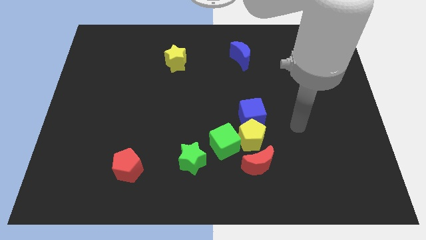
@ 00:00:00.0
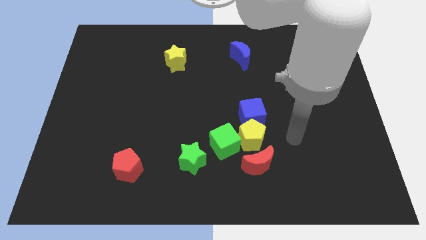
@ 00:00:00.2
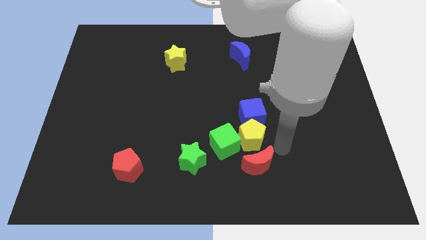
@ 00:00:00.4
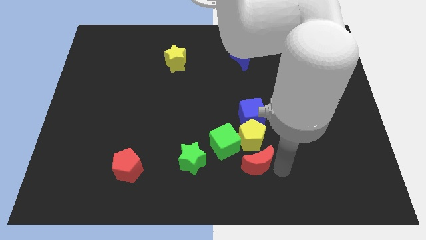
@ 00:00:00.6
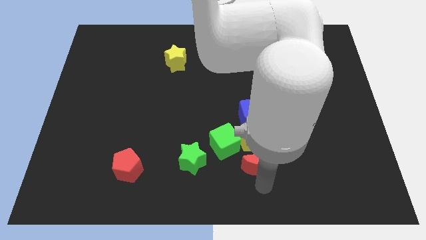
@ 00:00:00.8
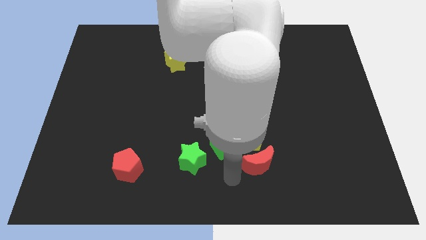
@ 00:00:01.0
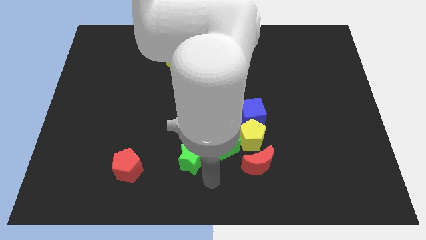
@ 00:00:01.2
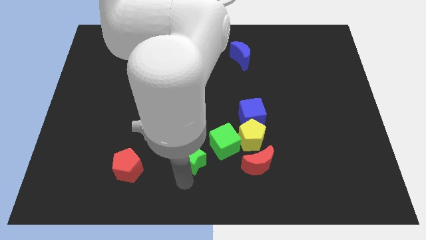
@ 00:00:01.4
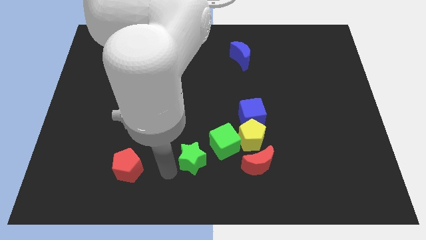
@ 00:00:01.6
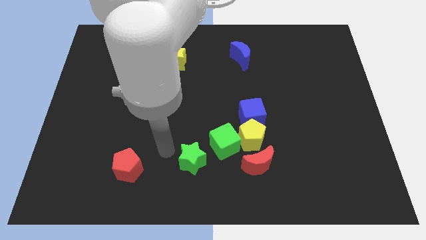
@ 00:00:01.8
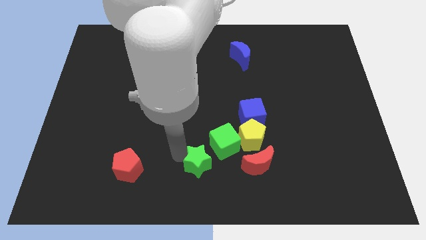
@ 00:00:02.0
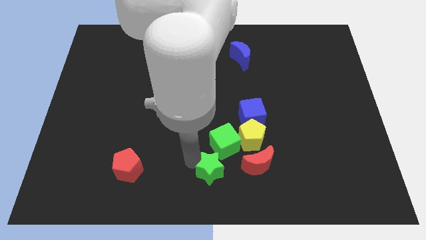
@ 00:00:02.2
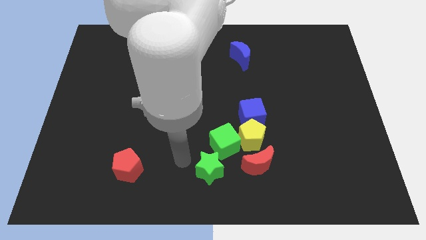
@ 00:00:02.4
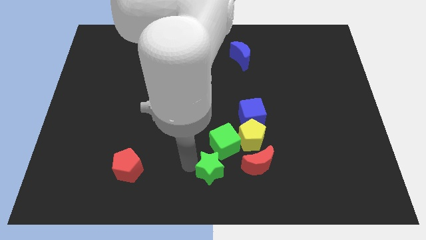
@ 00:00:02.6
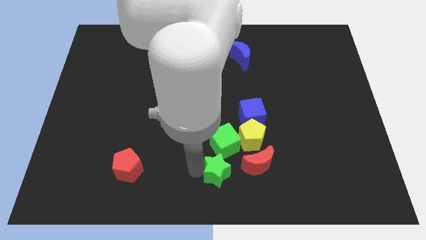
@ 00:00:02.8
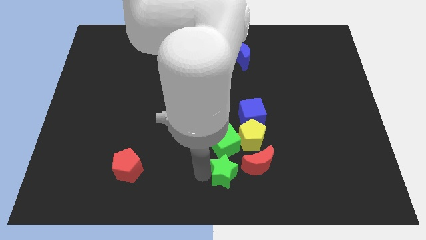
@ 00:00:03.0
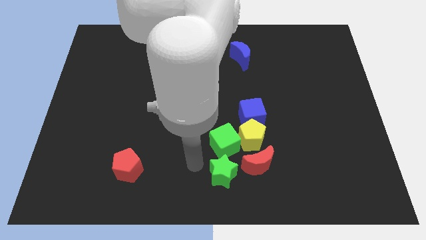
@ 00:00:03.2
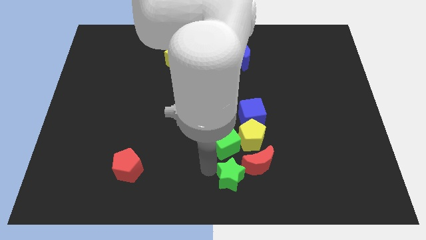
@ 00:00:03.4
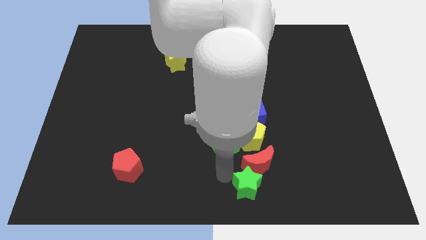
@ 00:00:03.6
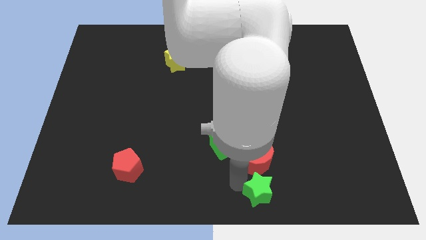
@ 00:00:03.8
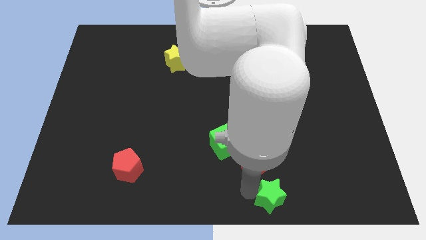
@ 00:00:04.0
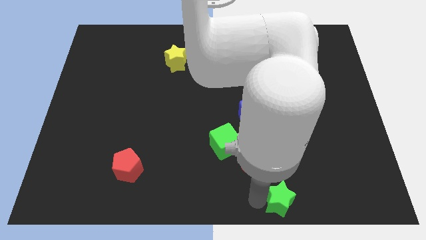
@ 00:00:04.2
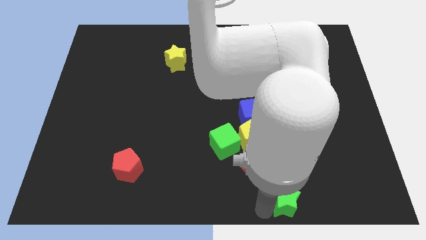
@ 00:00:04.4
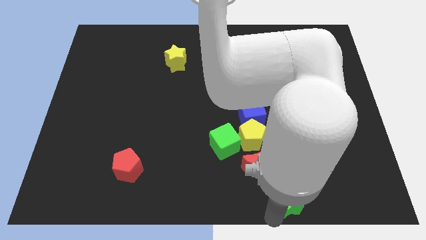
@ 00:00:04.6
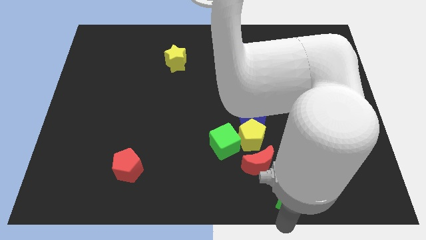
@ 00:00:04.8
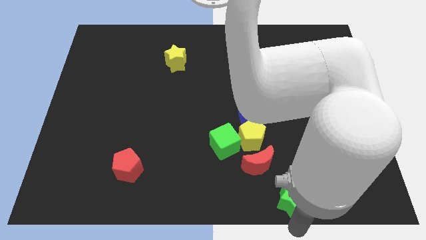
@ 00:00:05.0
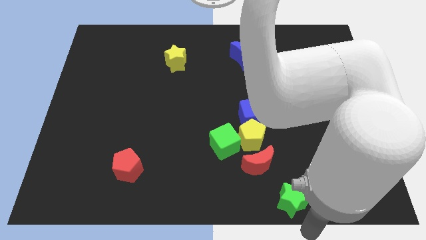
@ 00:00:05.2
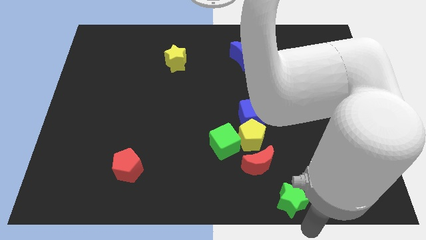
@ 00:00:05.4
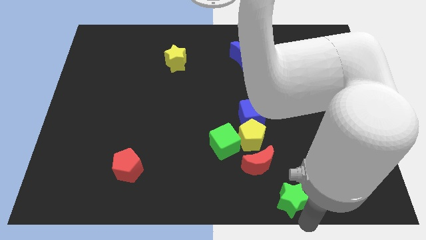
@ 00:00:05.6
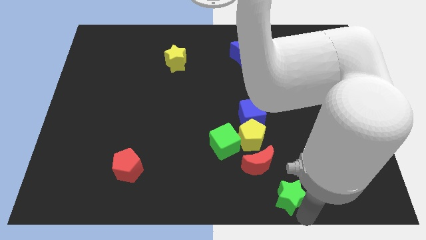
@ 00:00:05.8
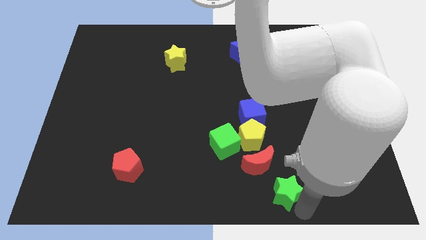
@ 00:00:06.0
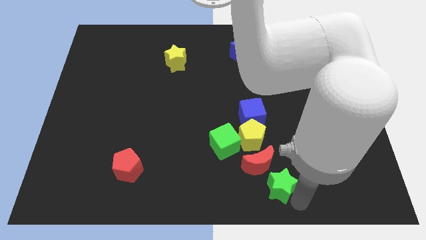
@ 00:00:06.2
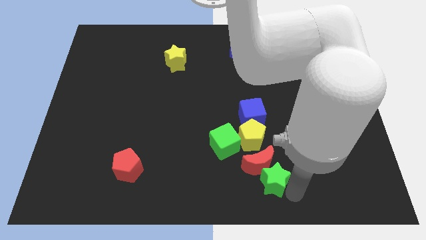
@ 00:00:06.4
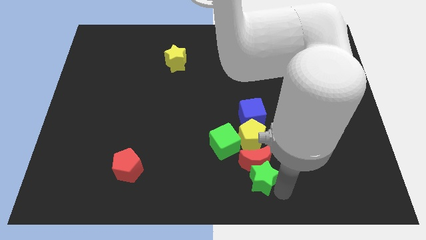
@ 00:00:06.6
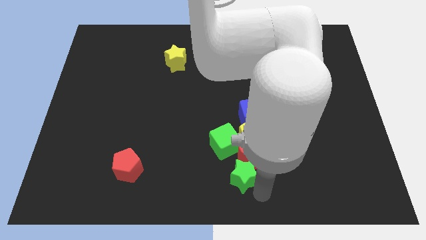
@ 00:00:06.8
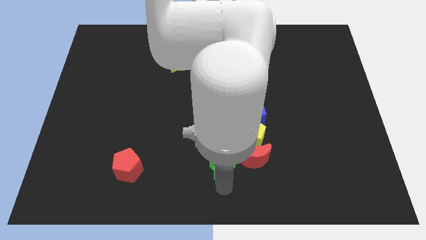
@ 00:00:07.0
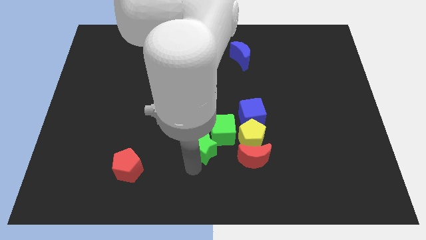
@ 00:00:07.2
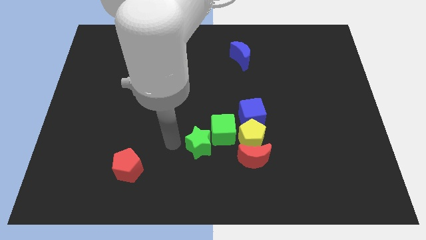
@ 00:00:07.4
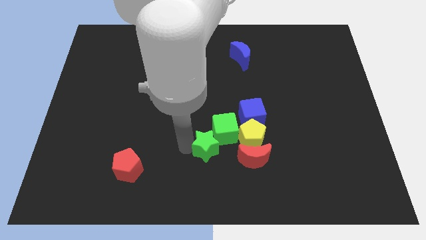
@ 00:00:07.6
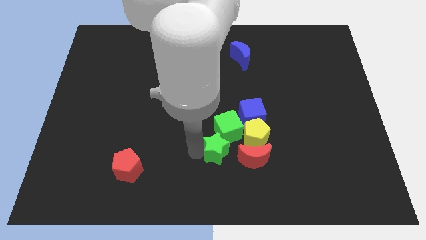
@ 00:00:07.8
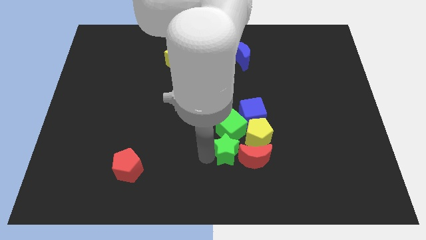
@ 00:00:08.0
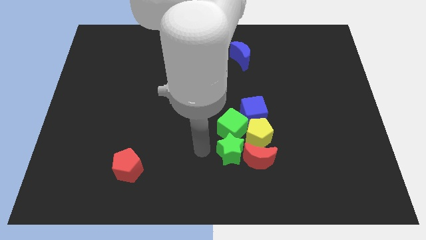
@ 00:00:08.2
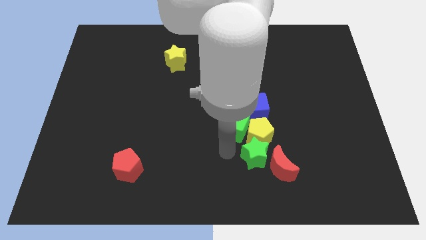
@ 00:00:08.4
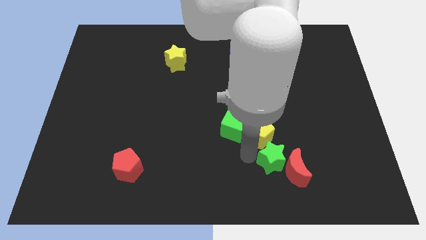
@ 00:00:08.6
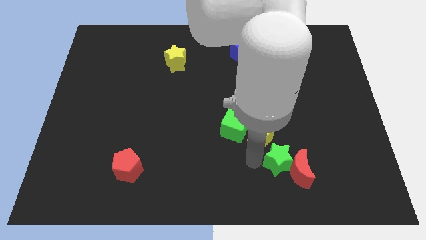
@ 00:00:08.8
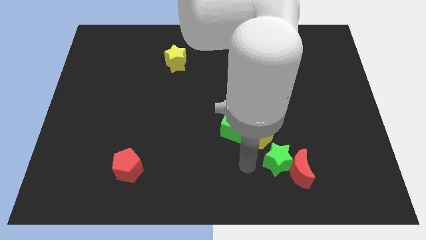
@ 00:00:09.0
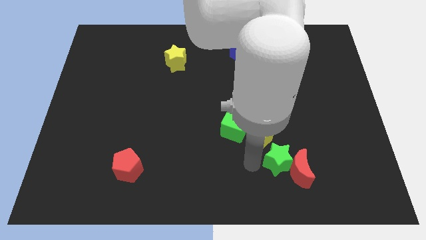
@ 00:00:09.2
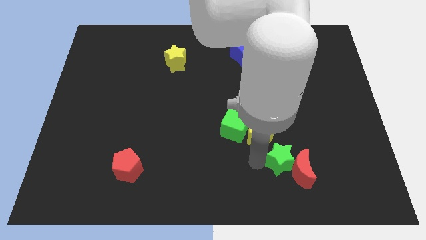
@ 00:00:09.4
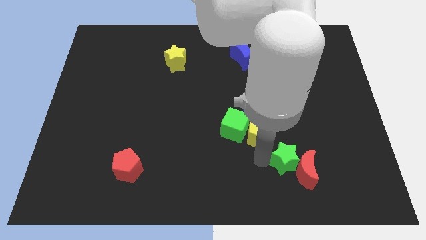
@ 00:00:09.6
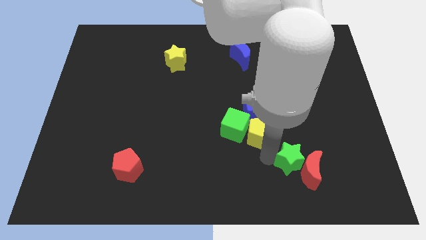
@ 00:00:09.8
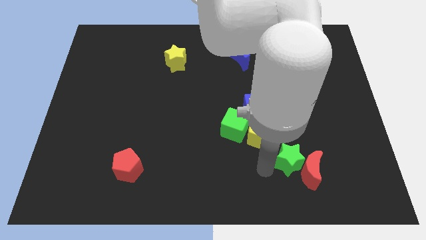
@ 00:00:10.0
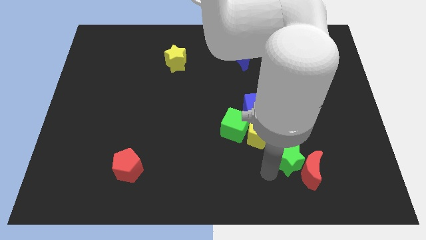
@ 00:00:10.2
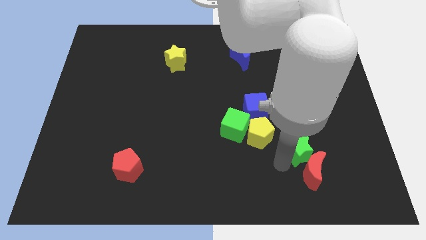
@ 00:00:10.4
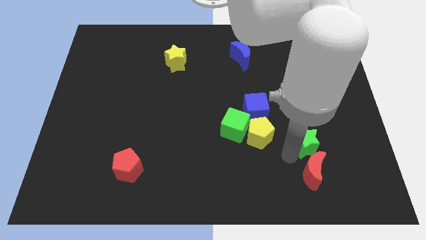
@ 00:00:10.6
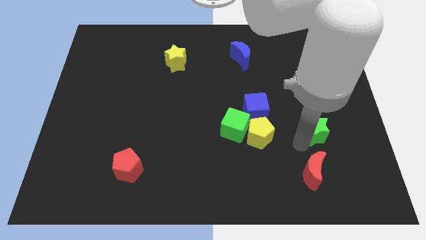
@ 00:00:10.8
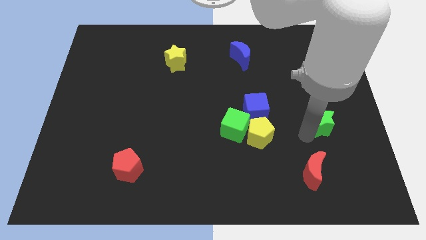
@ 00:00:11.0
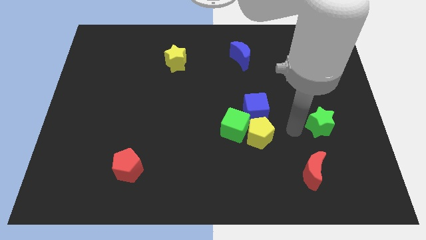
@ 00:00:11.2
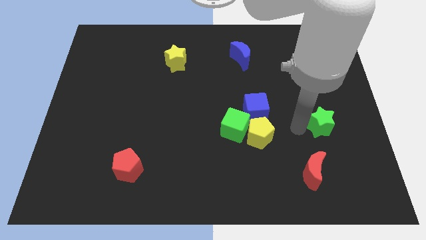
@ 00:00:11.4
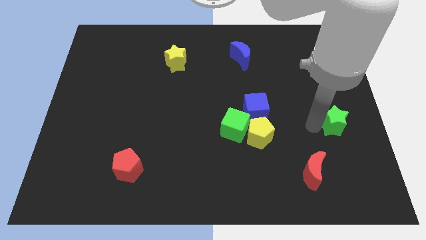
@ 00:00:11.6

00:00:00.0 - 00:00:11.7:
push the green star to the center right
